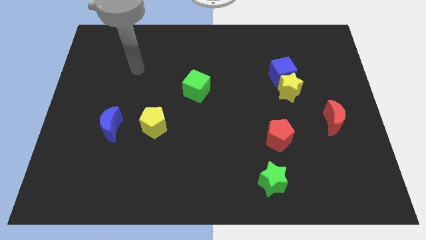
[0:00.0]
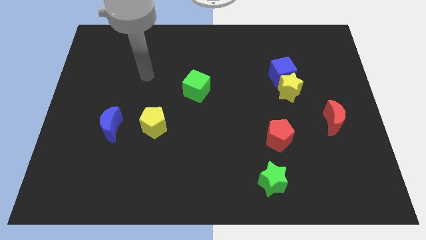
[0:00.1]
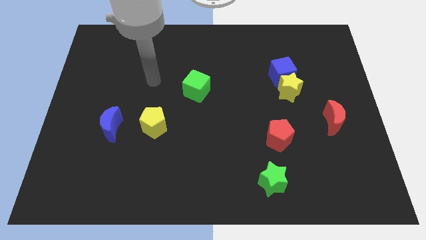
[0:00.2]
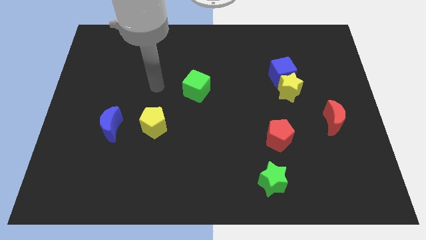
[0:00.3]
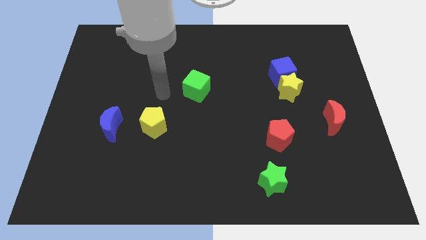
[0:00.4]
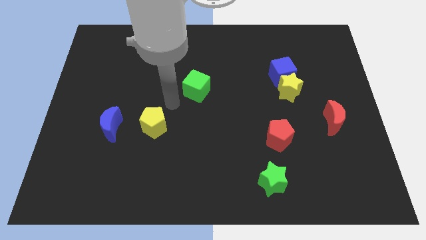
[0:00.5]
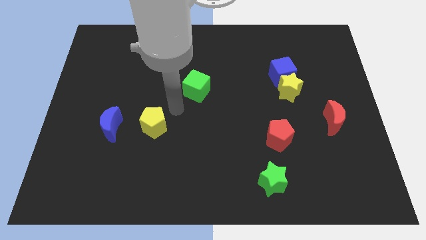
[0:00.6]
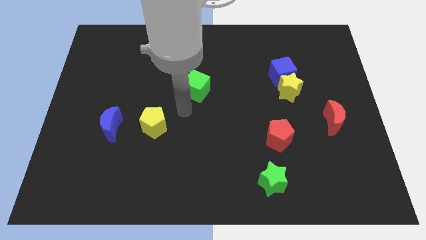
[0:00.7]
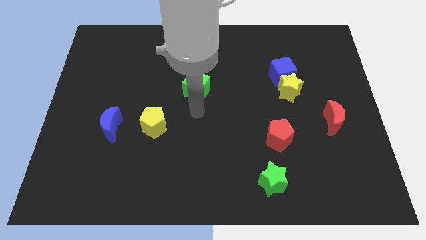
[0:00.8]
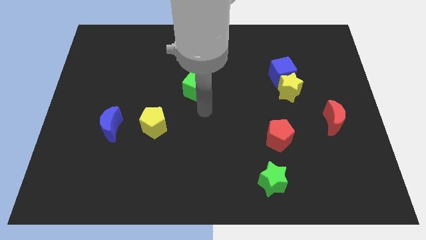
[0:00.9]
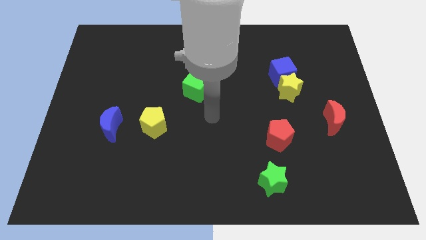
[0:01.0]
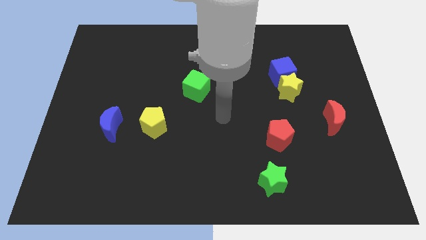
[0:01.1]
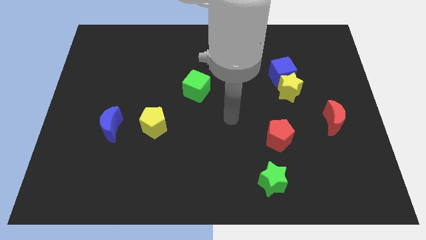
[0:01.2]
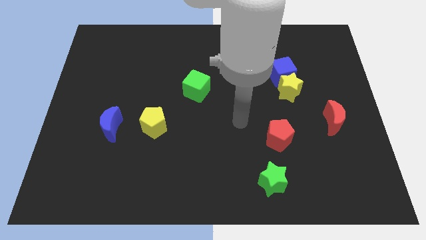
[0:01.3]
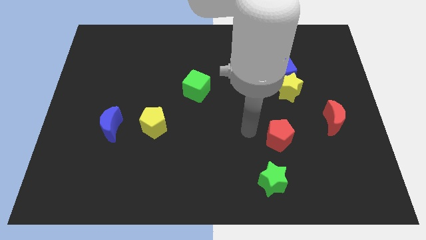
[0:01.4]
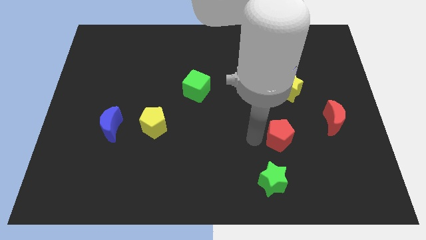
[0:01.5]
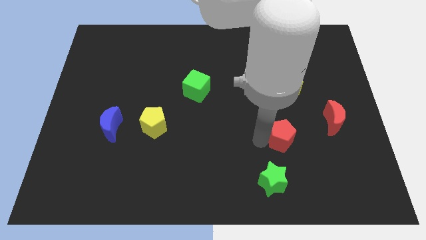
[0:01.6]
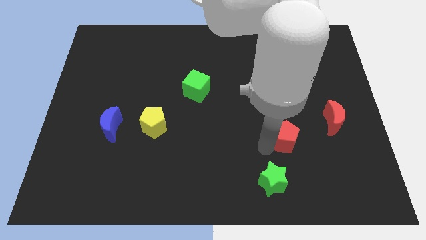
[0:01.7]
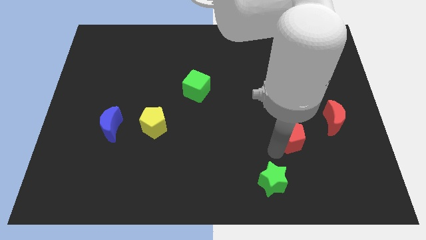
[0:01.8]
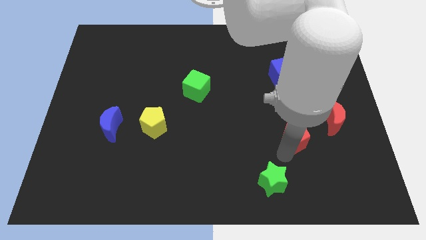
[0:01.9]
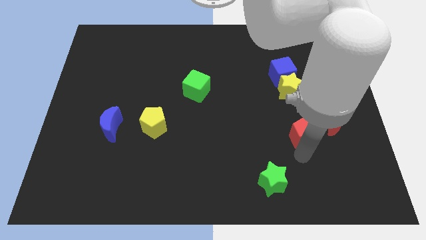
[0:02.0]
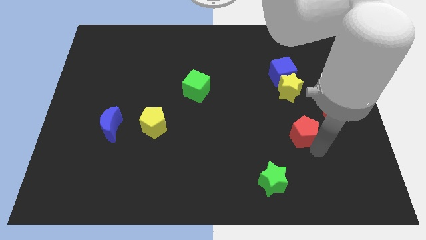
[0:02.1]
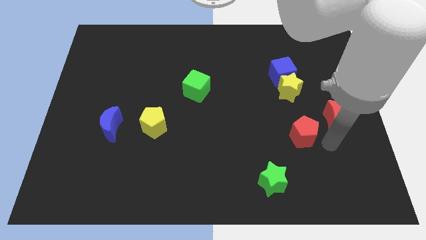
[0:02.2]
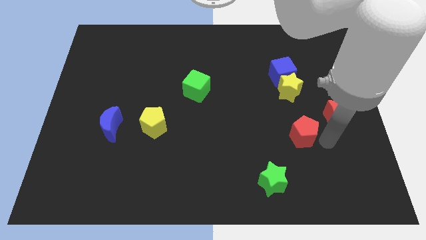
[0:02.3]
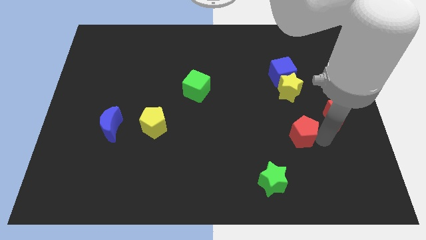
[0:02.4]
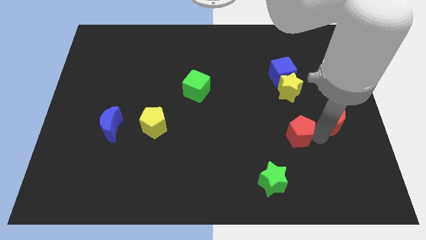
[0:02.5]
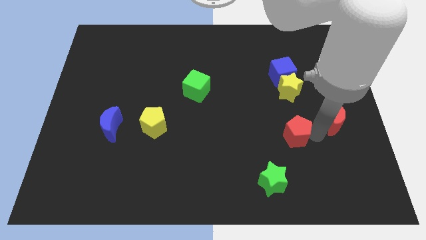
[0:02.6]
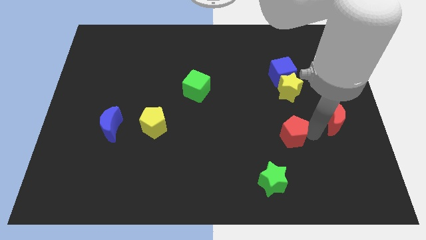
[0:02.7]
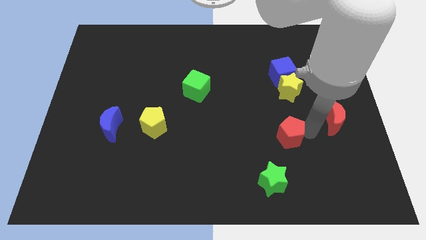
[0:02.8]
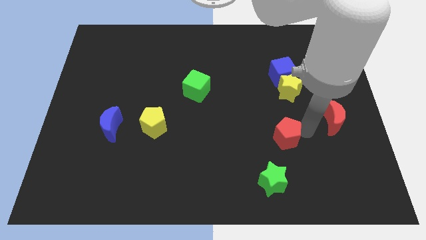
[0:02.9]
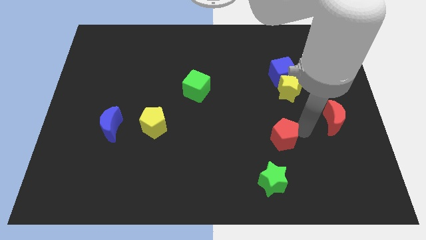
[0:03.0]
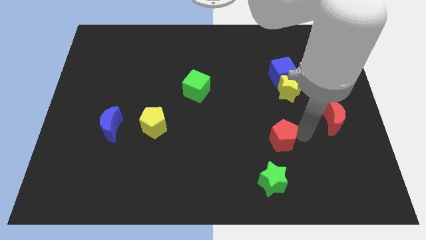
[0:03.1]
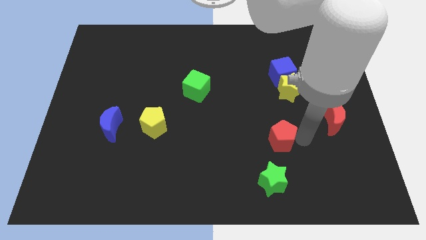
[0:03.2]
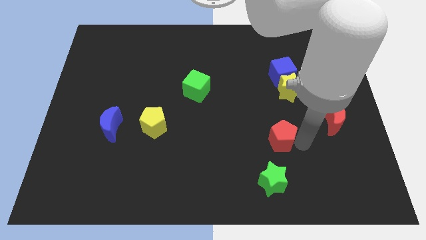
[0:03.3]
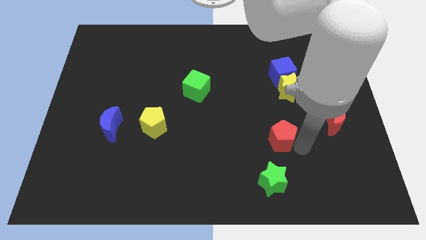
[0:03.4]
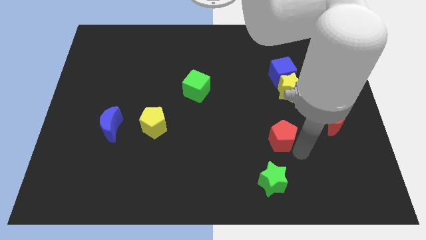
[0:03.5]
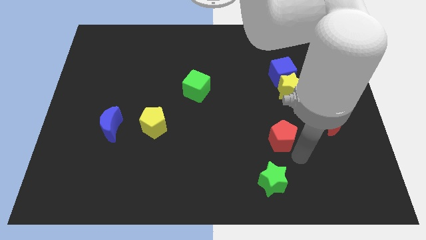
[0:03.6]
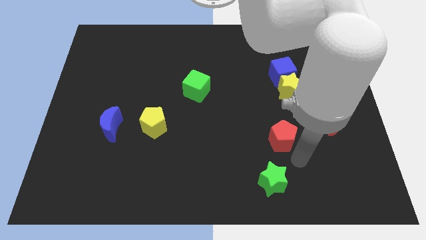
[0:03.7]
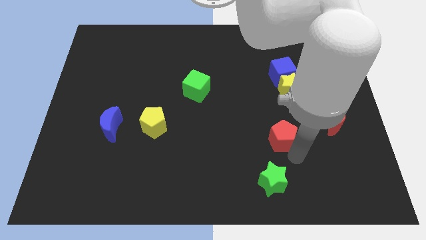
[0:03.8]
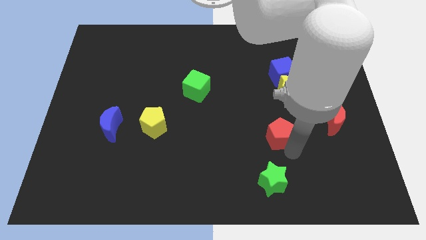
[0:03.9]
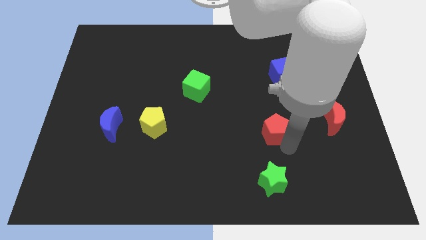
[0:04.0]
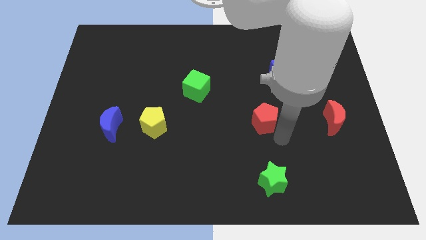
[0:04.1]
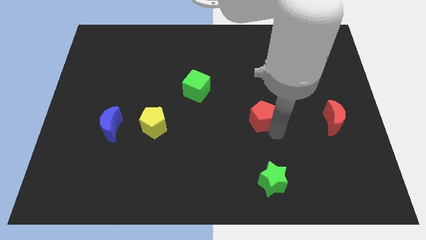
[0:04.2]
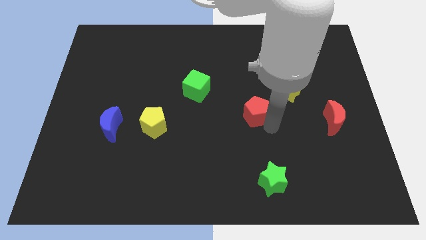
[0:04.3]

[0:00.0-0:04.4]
slightly push the red pentagon upwards and left

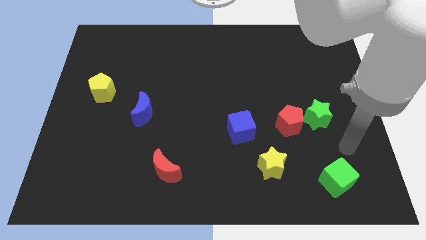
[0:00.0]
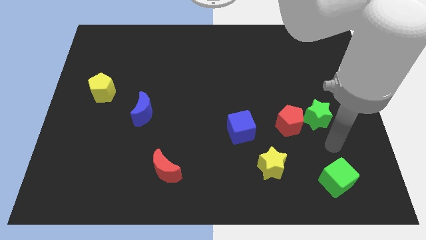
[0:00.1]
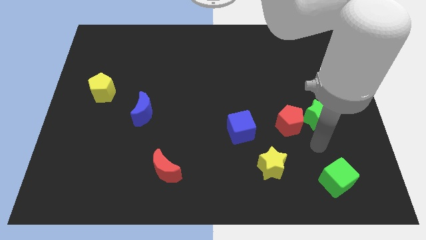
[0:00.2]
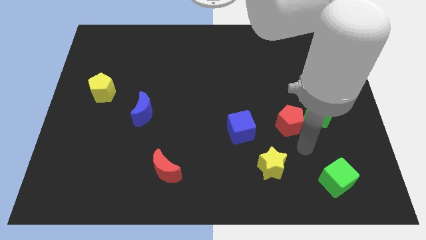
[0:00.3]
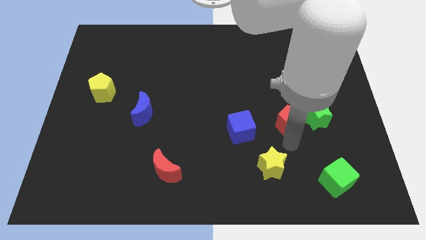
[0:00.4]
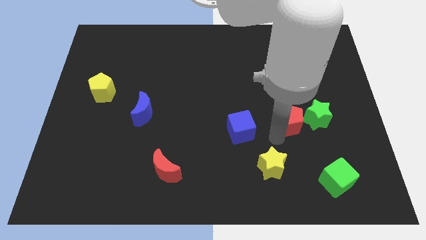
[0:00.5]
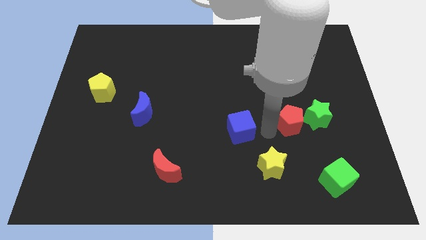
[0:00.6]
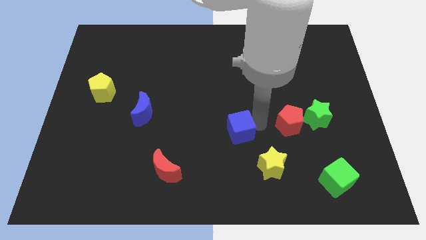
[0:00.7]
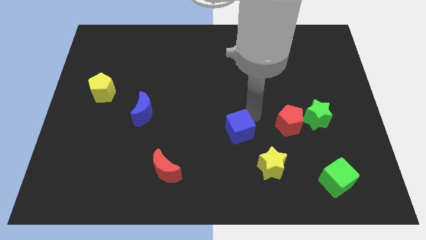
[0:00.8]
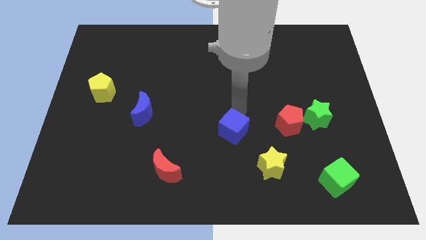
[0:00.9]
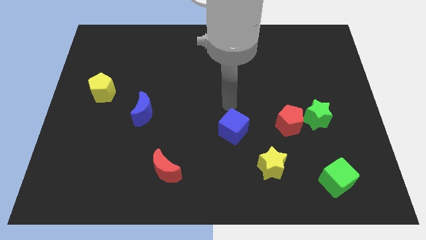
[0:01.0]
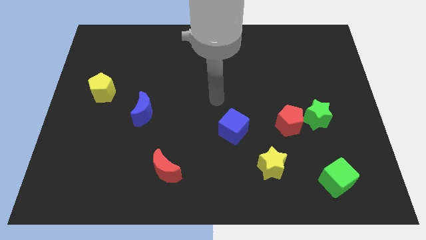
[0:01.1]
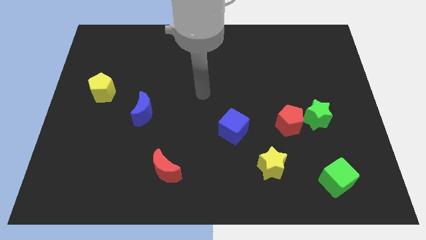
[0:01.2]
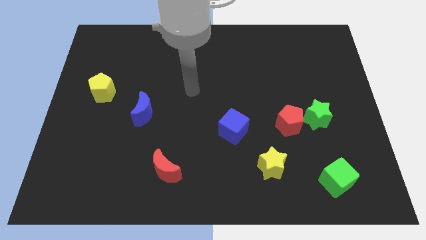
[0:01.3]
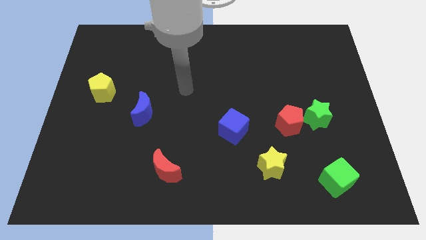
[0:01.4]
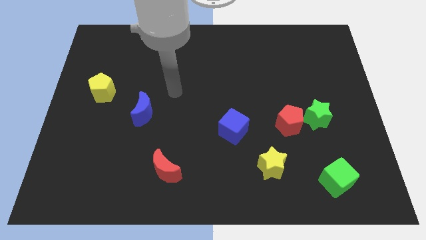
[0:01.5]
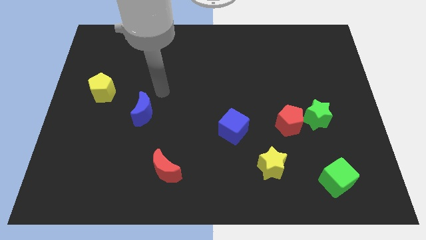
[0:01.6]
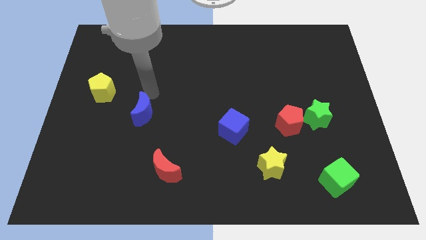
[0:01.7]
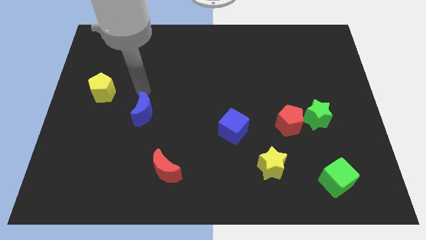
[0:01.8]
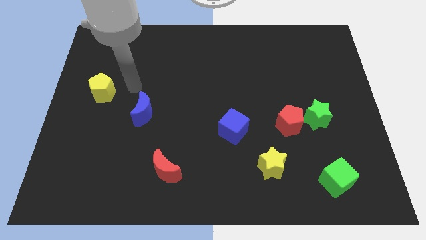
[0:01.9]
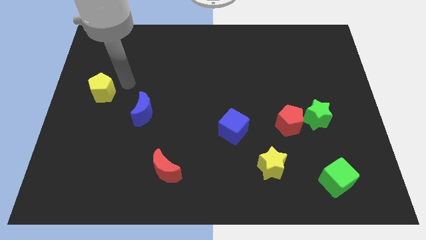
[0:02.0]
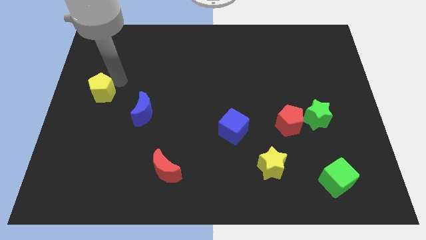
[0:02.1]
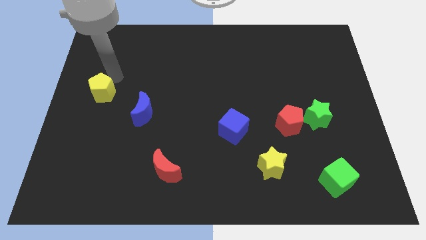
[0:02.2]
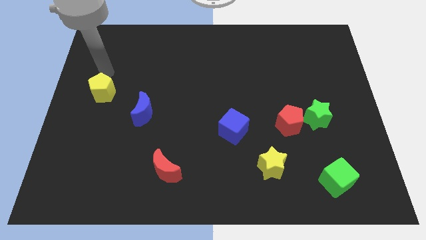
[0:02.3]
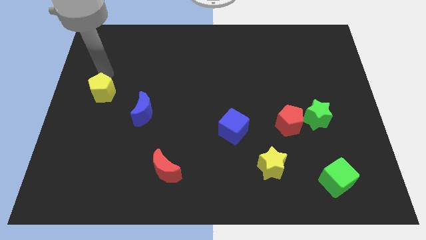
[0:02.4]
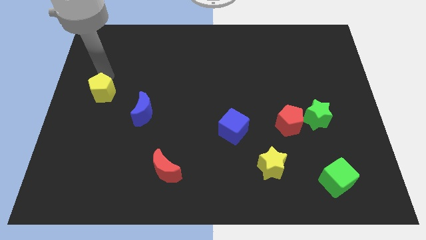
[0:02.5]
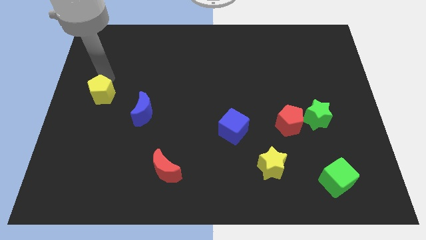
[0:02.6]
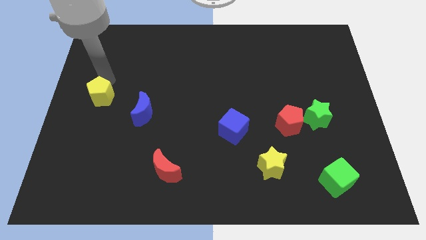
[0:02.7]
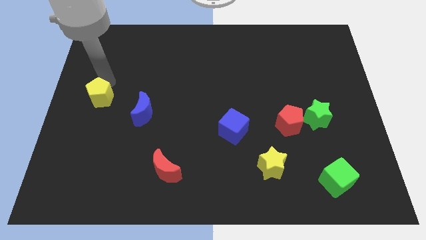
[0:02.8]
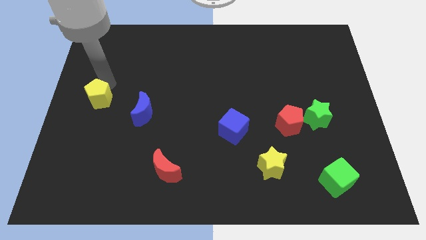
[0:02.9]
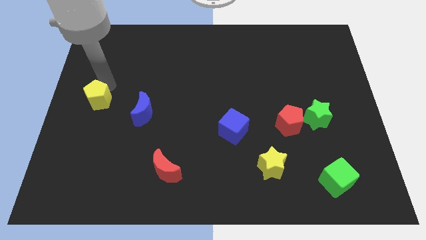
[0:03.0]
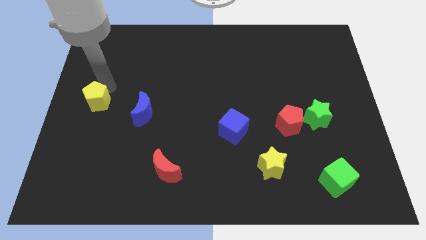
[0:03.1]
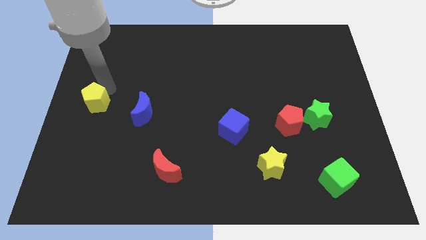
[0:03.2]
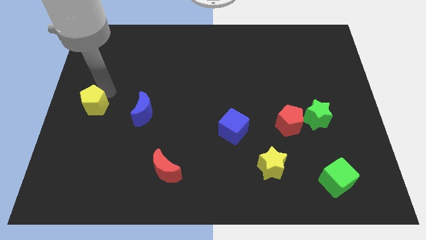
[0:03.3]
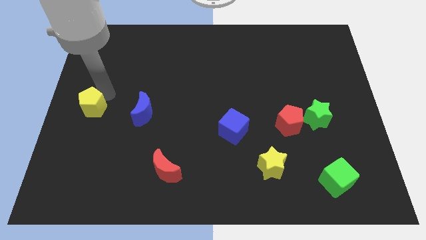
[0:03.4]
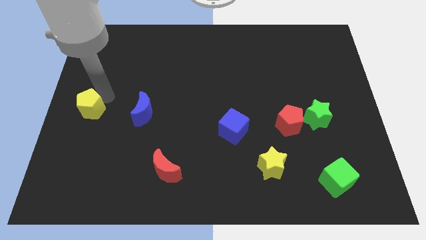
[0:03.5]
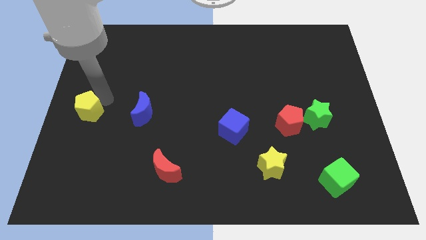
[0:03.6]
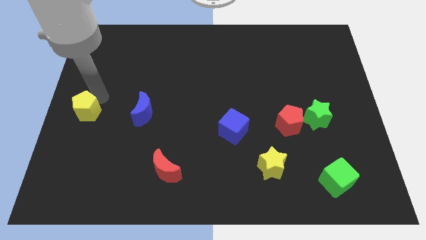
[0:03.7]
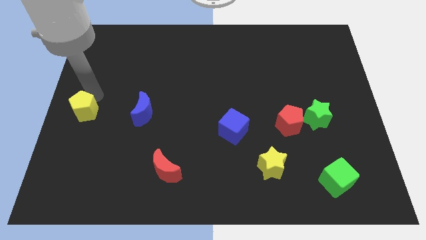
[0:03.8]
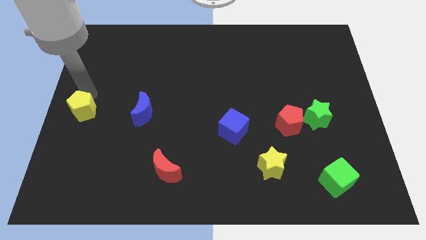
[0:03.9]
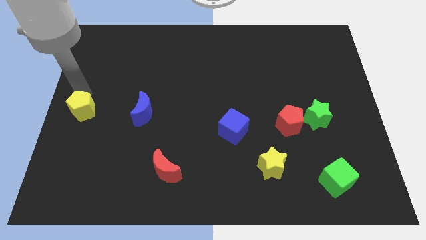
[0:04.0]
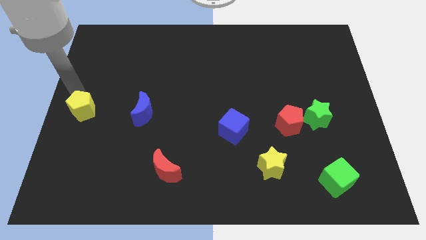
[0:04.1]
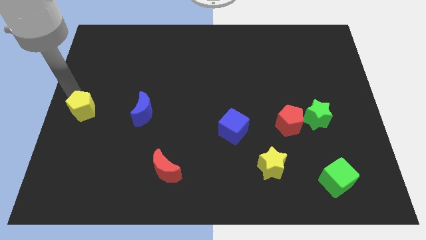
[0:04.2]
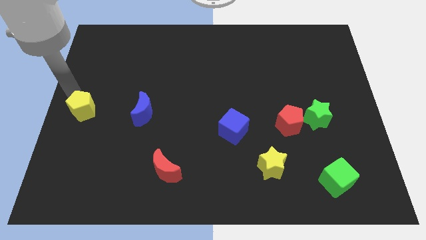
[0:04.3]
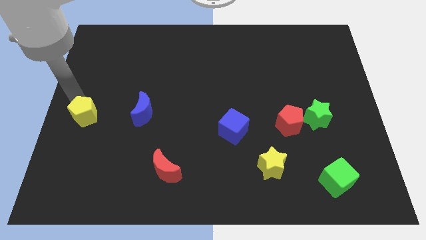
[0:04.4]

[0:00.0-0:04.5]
push the yellow pentagon downwards a little bit
